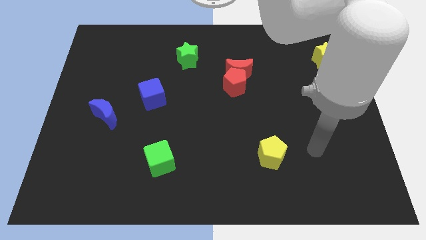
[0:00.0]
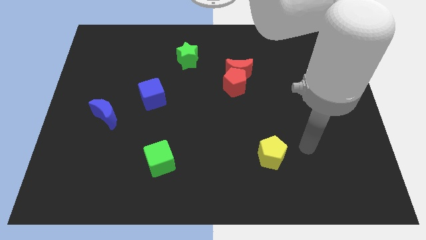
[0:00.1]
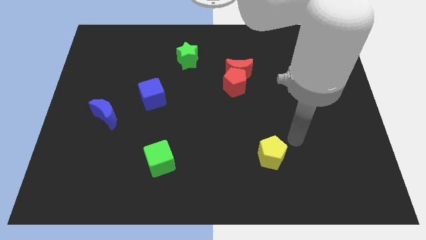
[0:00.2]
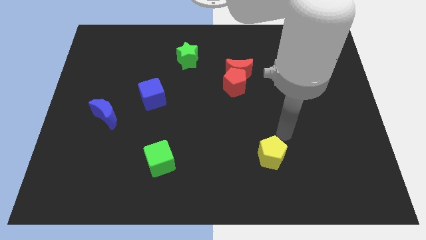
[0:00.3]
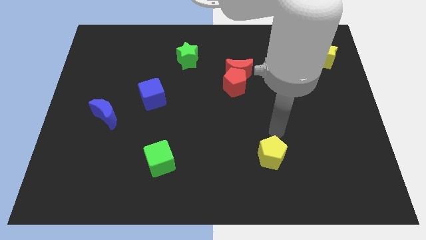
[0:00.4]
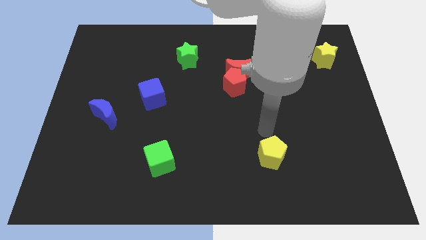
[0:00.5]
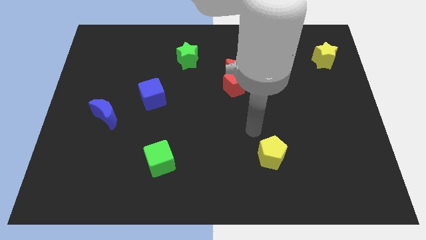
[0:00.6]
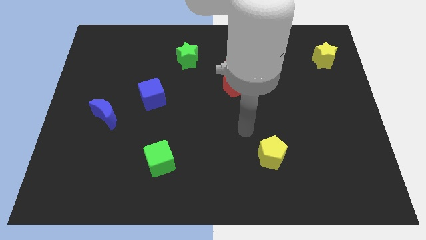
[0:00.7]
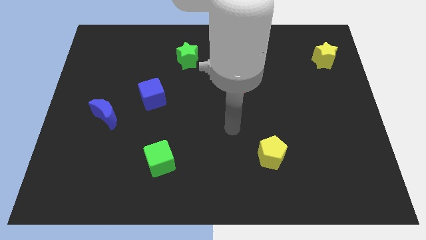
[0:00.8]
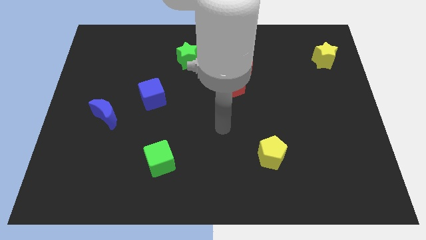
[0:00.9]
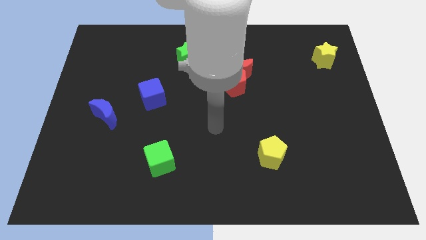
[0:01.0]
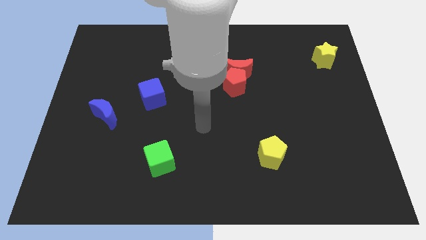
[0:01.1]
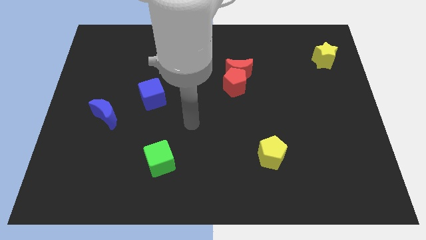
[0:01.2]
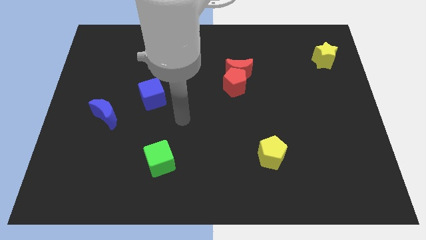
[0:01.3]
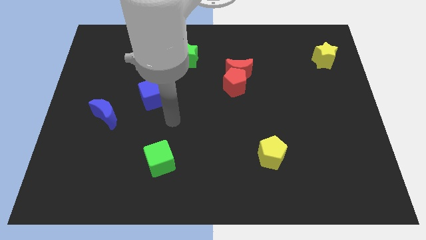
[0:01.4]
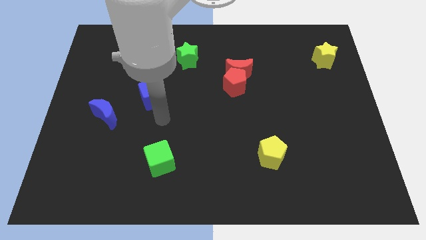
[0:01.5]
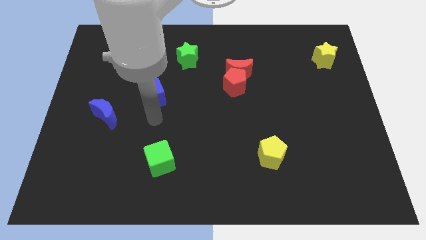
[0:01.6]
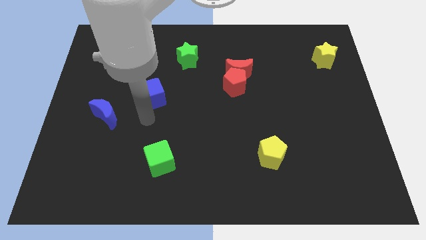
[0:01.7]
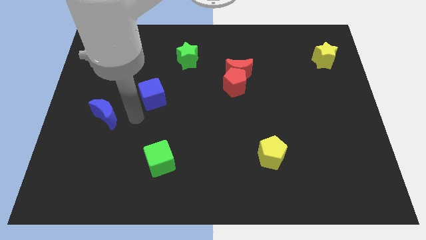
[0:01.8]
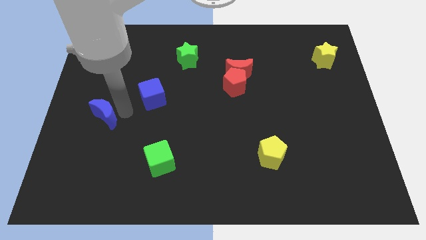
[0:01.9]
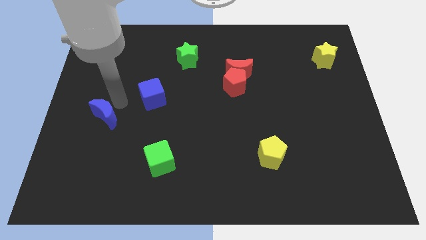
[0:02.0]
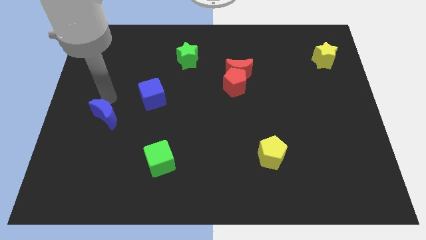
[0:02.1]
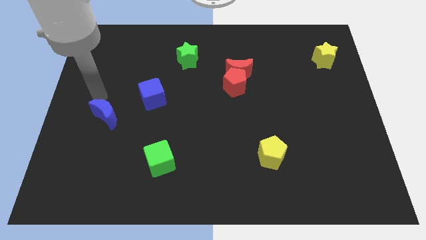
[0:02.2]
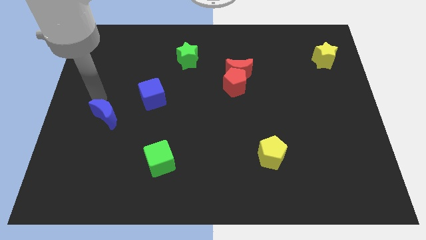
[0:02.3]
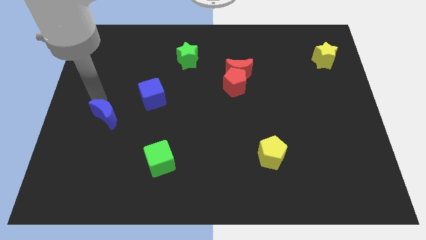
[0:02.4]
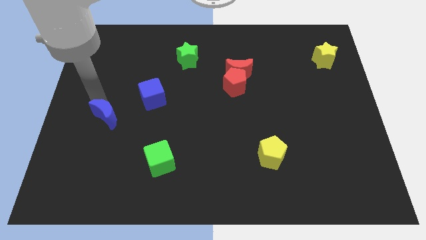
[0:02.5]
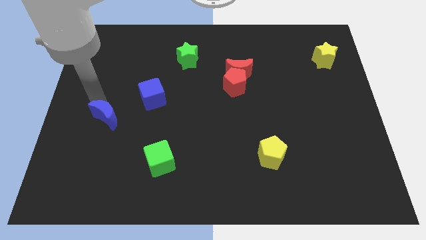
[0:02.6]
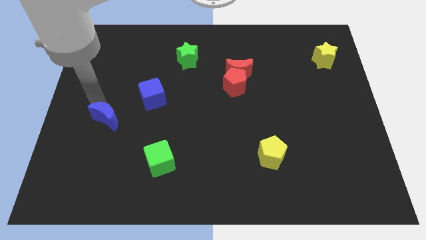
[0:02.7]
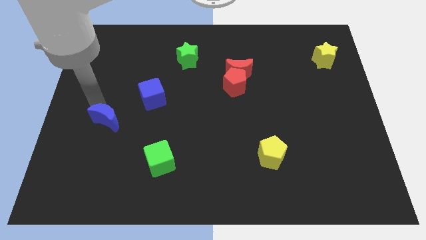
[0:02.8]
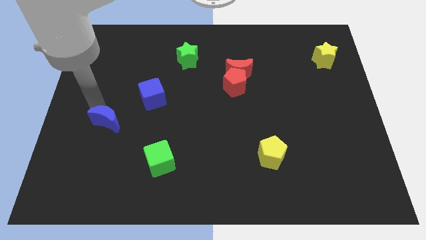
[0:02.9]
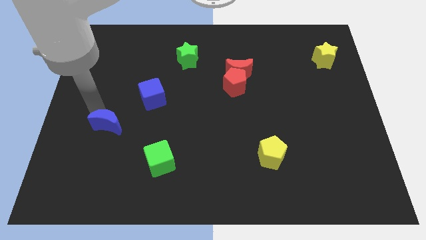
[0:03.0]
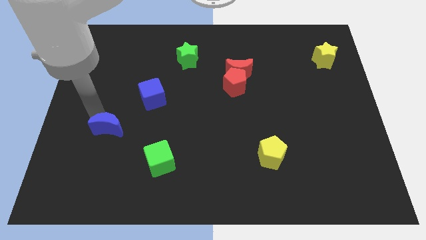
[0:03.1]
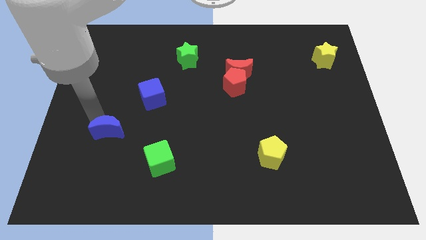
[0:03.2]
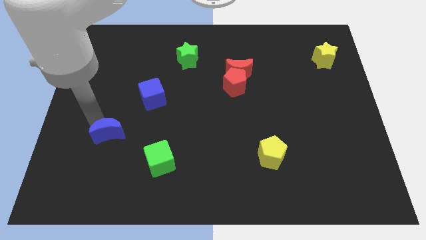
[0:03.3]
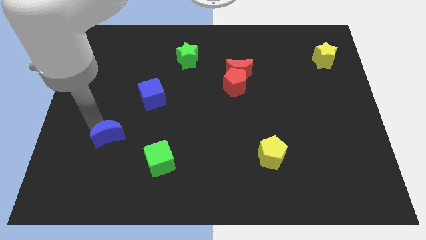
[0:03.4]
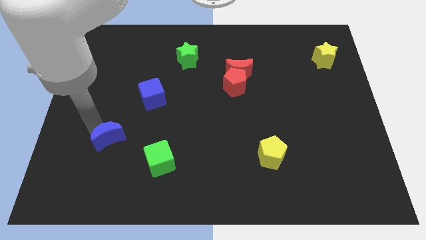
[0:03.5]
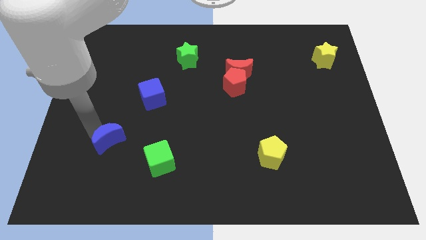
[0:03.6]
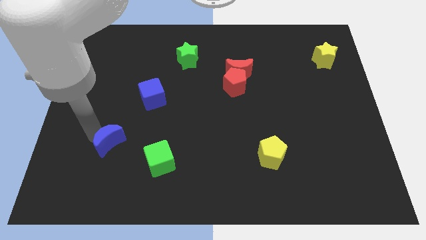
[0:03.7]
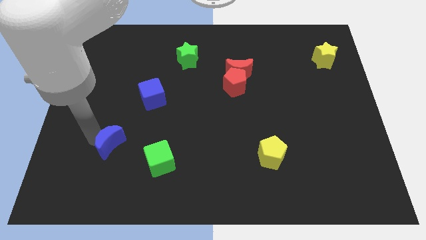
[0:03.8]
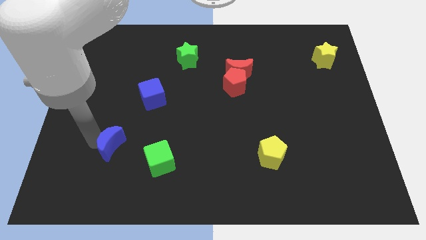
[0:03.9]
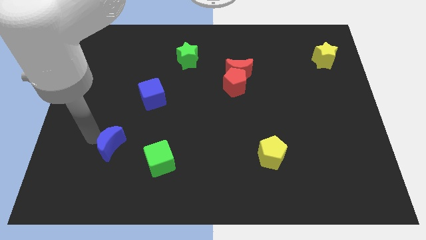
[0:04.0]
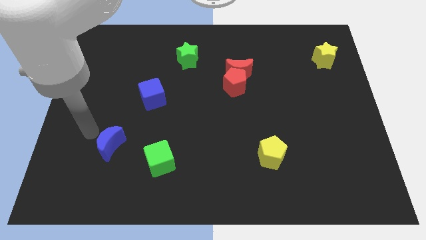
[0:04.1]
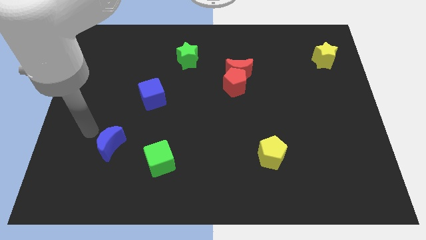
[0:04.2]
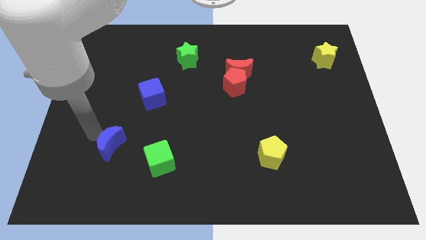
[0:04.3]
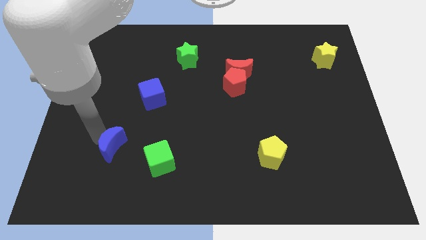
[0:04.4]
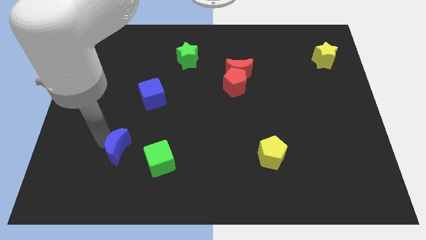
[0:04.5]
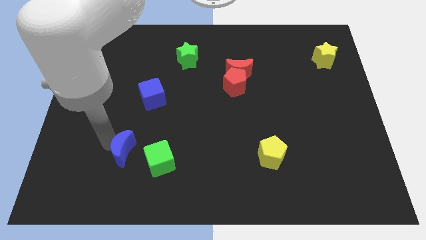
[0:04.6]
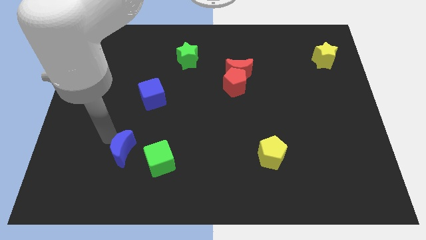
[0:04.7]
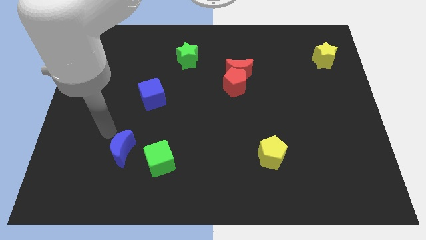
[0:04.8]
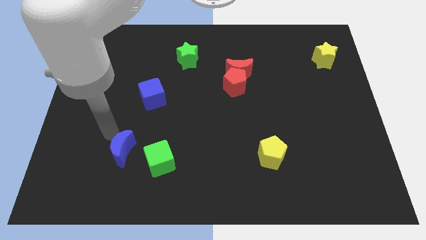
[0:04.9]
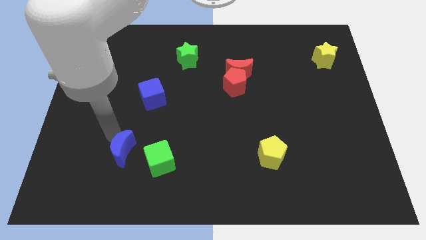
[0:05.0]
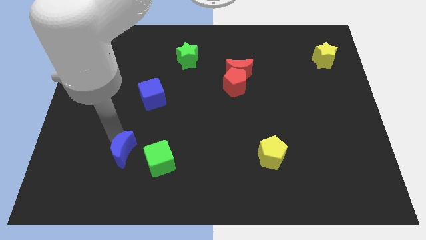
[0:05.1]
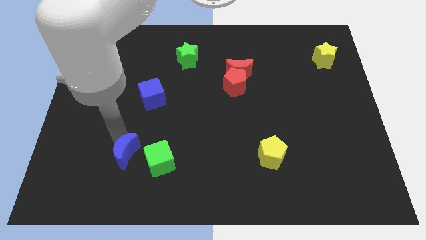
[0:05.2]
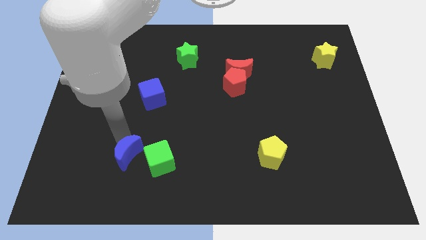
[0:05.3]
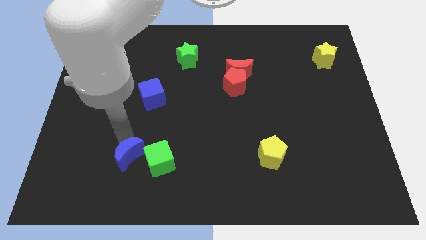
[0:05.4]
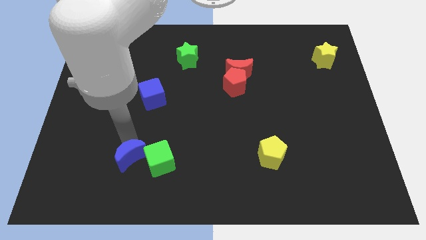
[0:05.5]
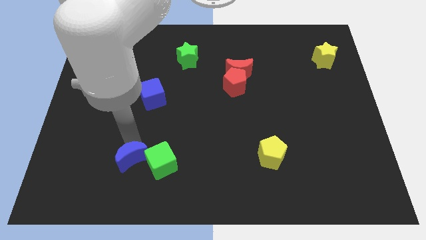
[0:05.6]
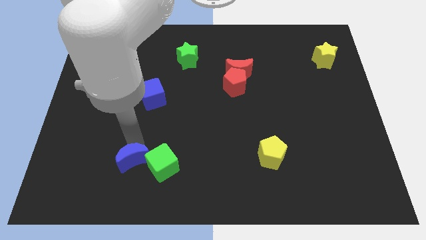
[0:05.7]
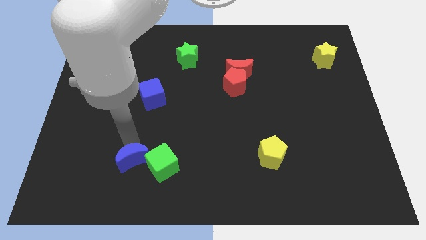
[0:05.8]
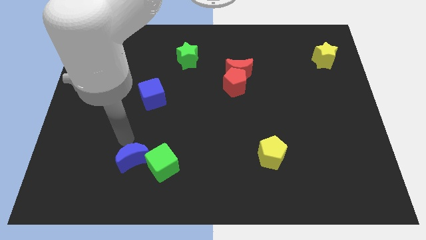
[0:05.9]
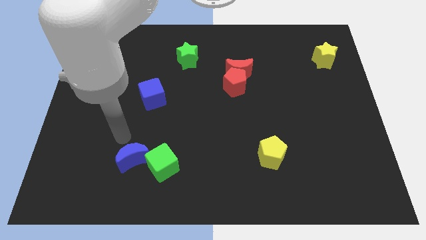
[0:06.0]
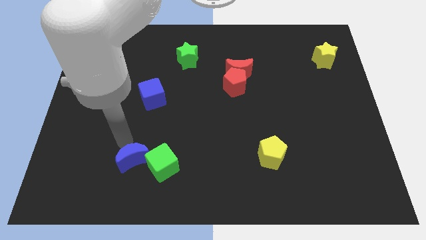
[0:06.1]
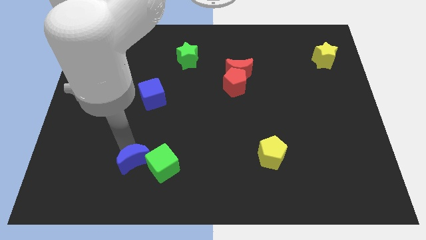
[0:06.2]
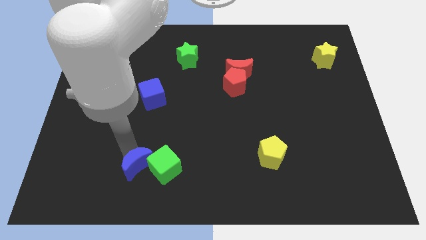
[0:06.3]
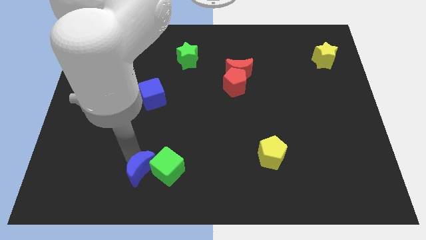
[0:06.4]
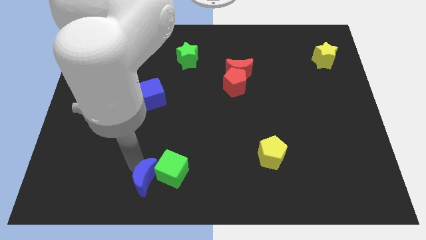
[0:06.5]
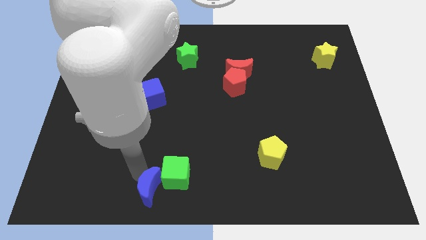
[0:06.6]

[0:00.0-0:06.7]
put the blue moon to the bottom side

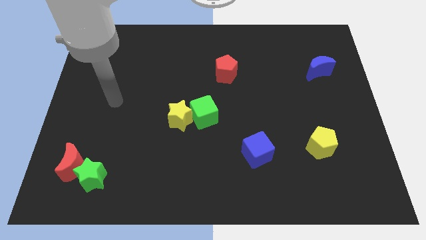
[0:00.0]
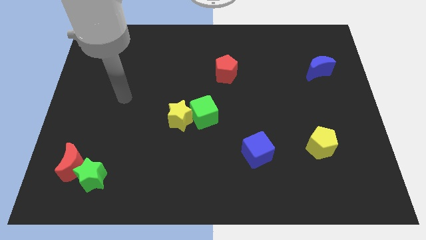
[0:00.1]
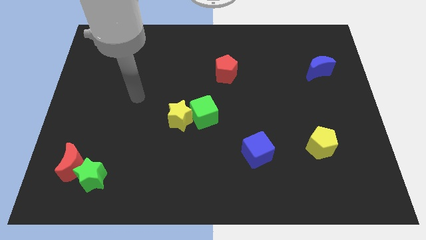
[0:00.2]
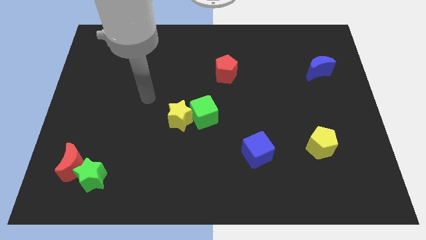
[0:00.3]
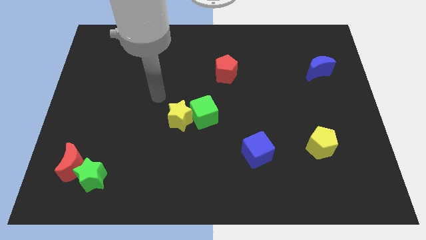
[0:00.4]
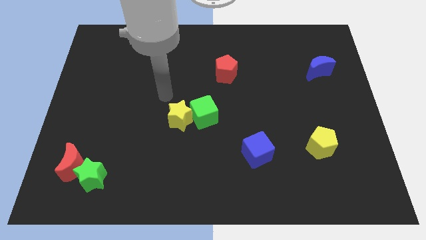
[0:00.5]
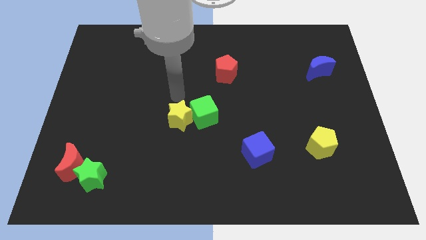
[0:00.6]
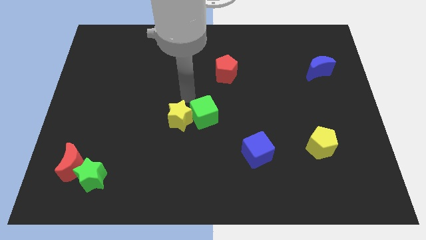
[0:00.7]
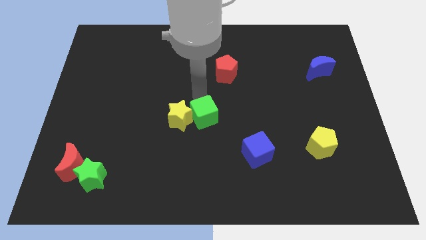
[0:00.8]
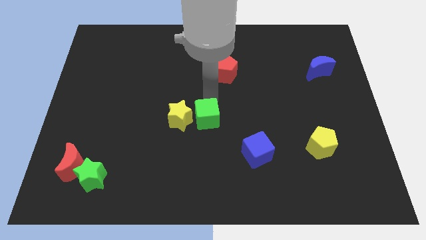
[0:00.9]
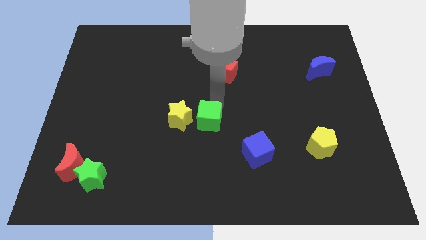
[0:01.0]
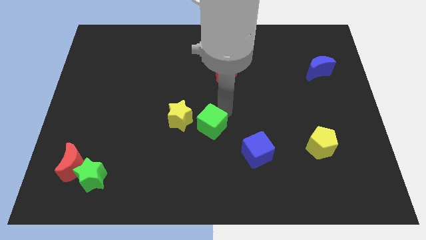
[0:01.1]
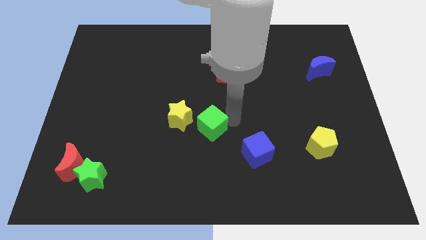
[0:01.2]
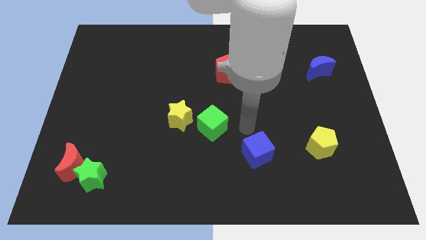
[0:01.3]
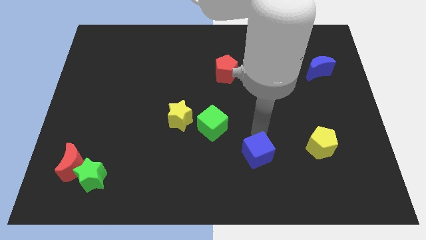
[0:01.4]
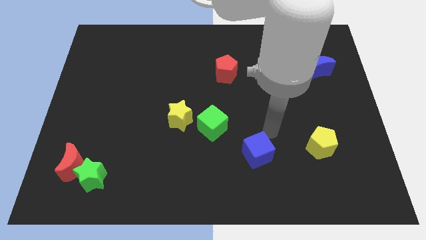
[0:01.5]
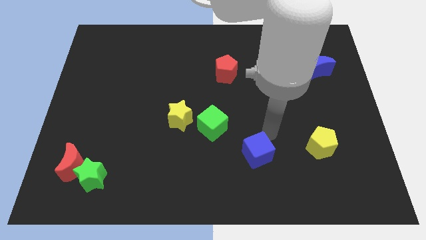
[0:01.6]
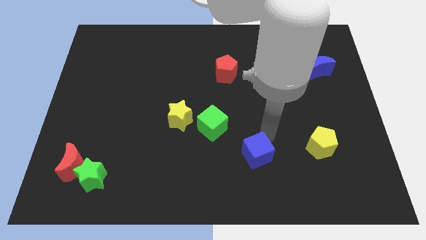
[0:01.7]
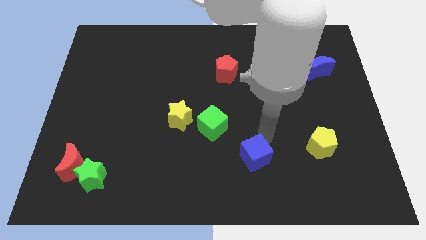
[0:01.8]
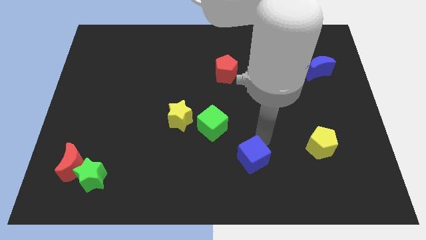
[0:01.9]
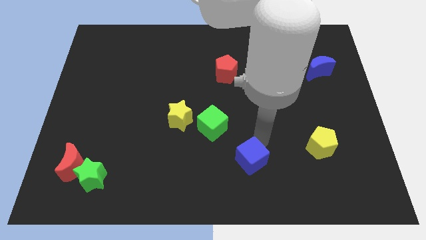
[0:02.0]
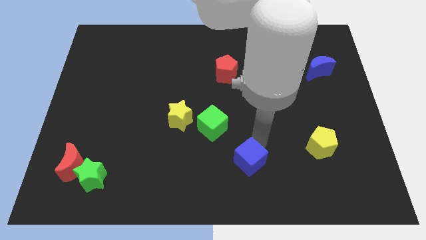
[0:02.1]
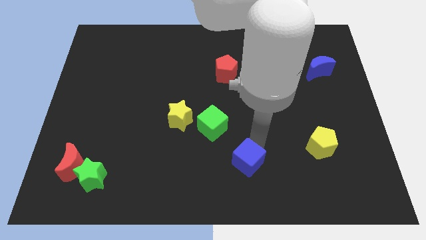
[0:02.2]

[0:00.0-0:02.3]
push the blue cube to the bottom side
